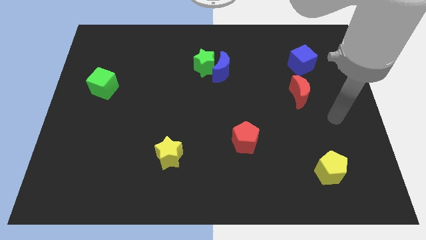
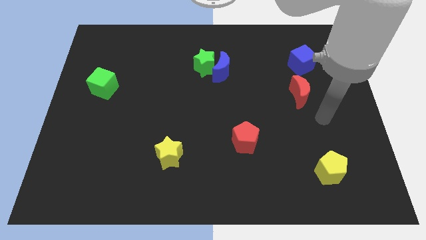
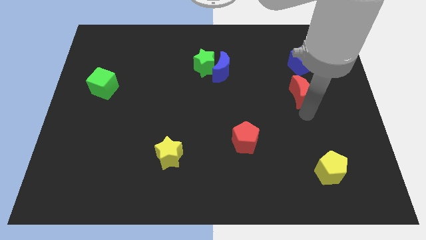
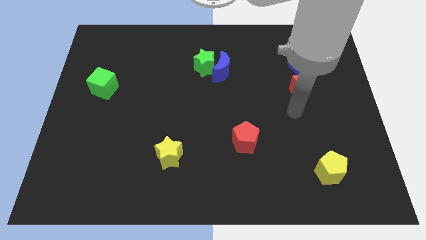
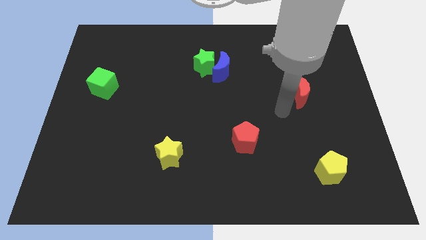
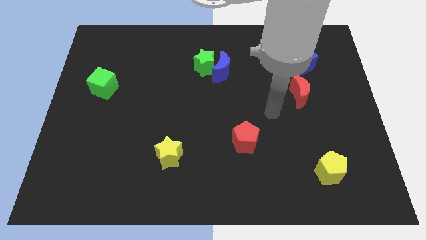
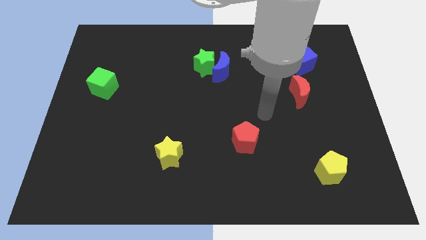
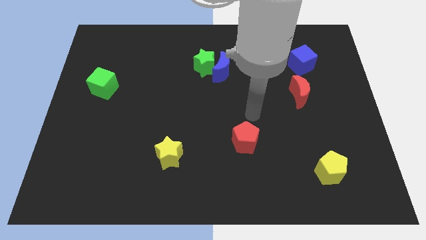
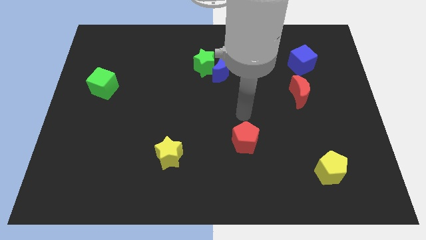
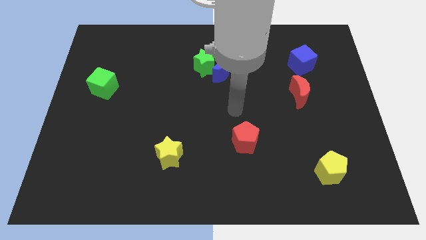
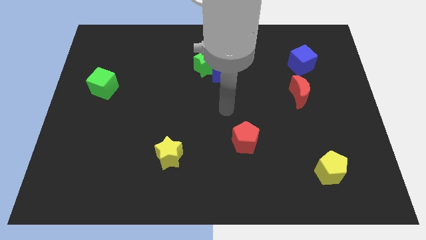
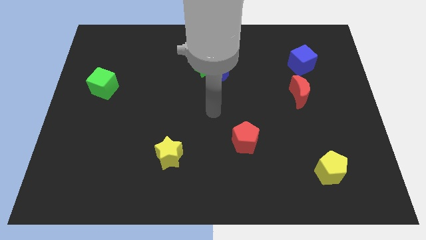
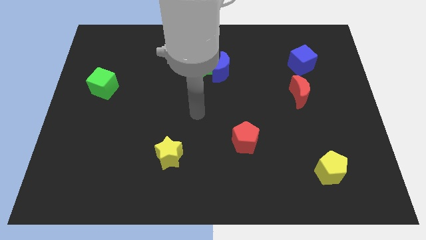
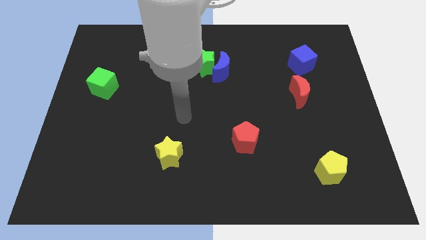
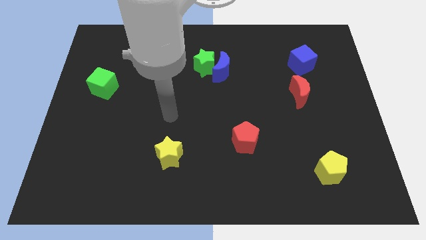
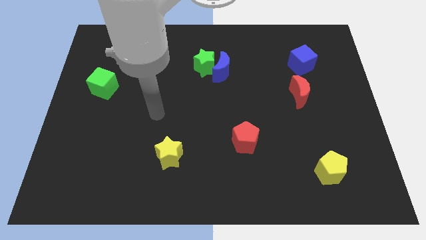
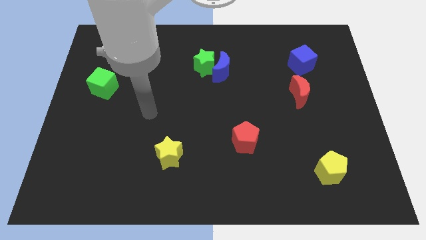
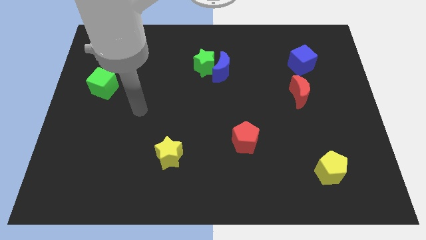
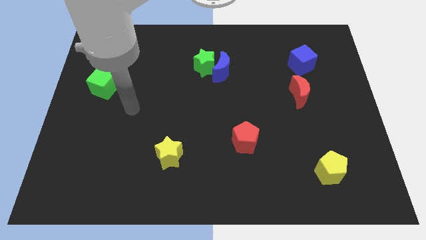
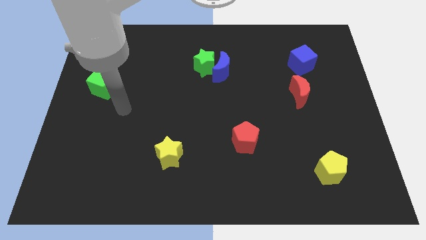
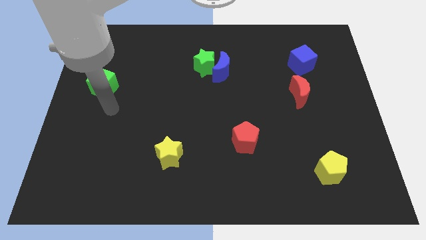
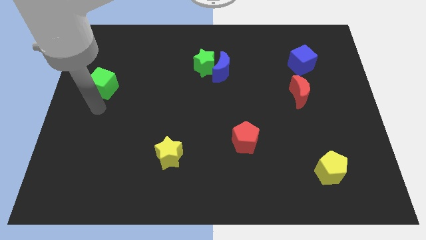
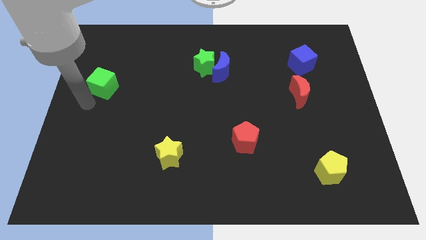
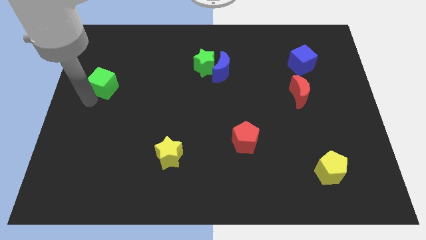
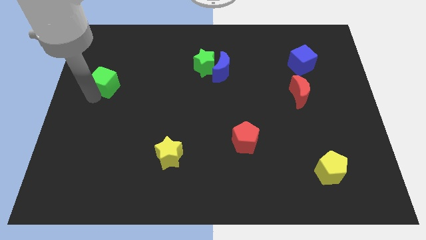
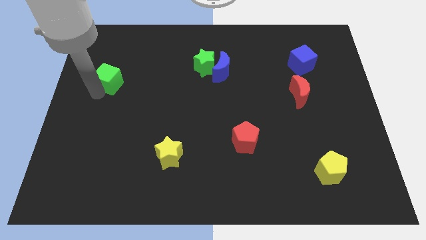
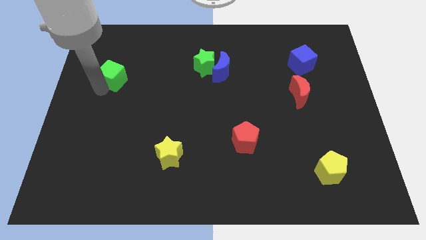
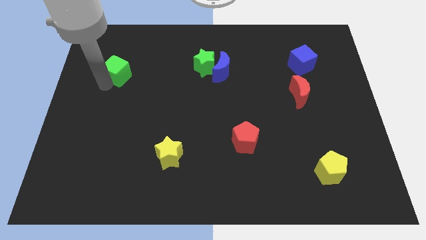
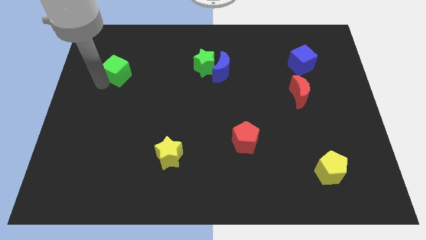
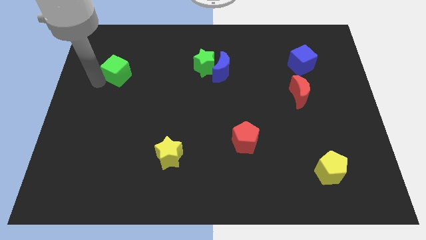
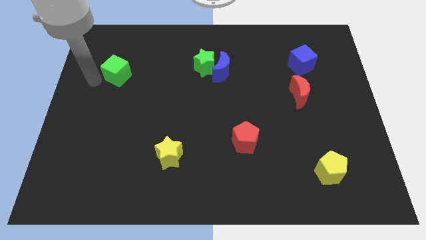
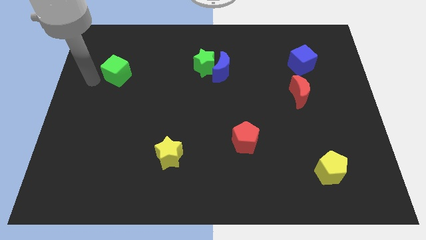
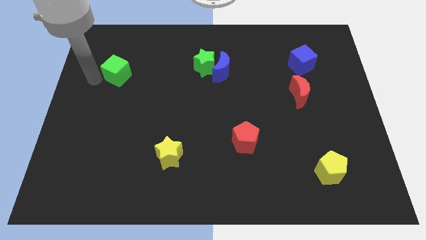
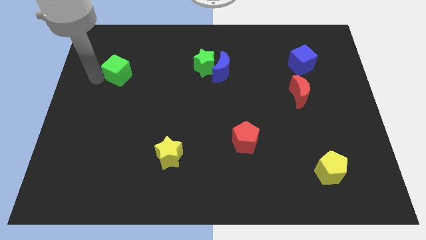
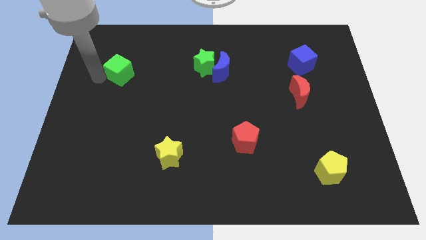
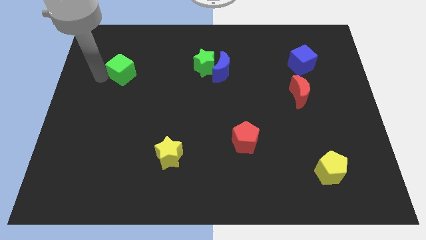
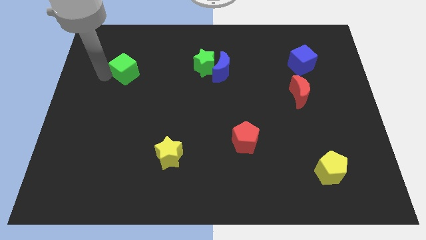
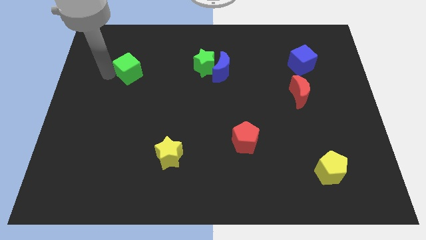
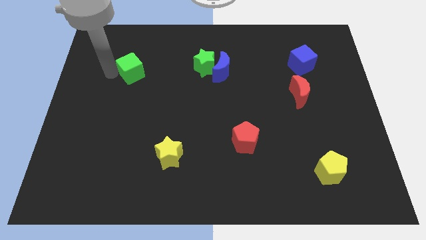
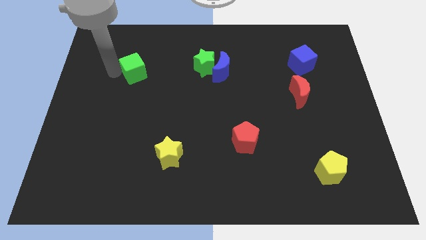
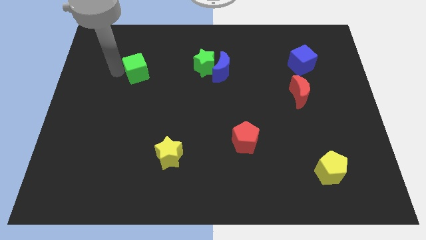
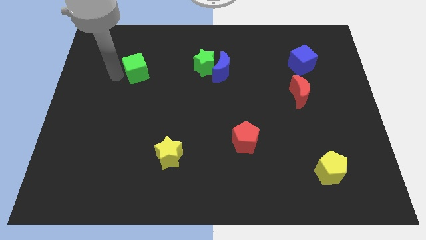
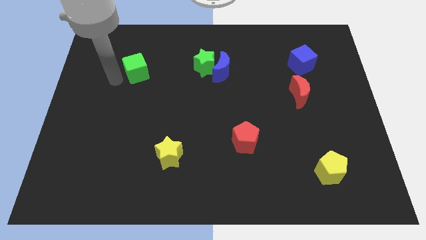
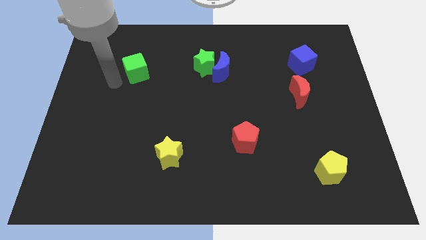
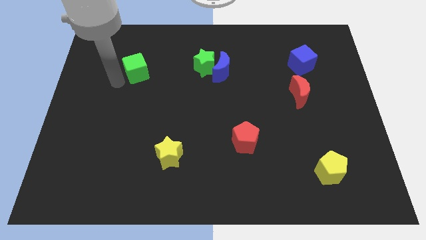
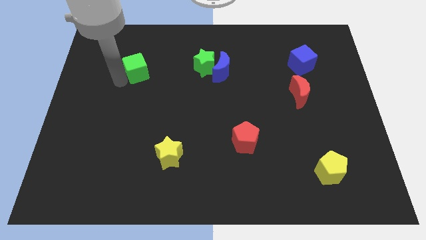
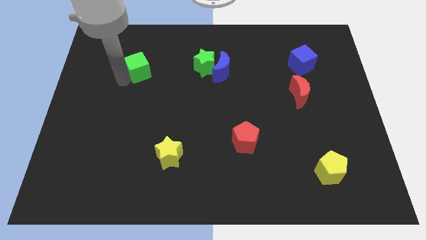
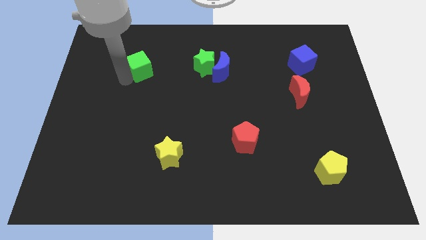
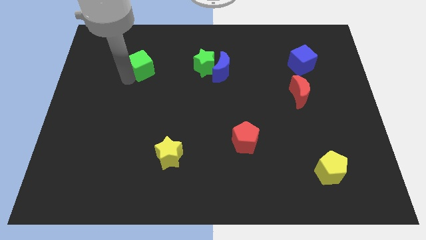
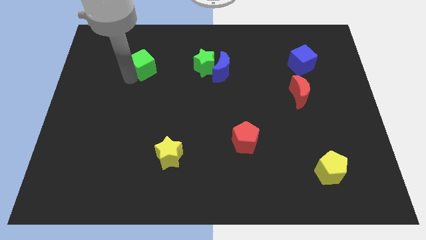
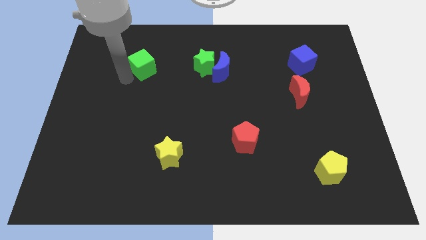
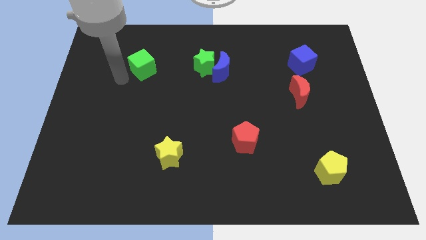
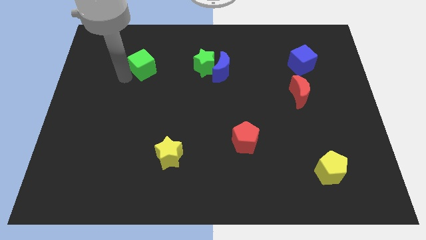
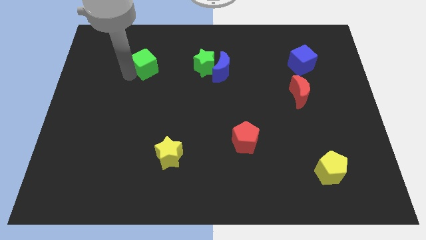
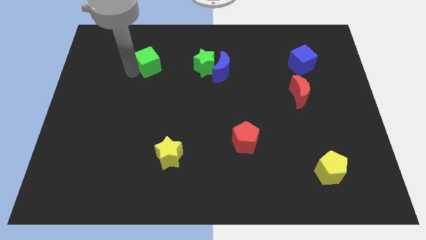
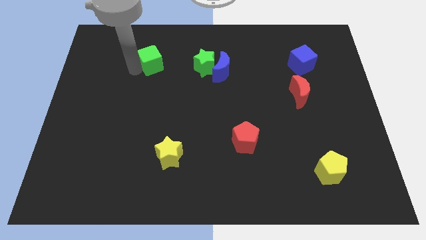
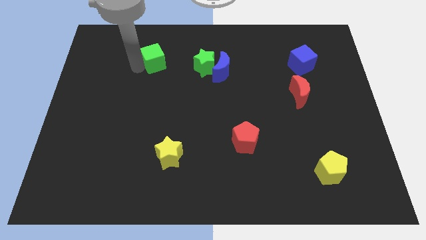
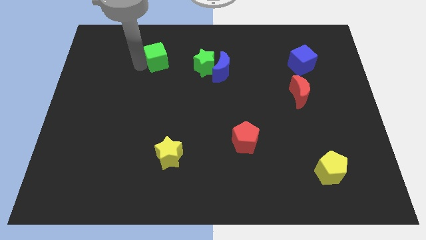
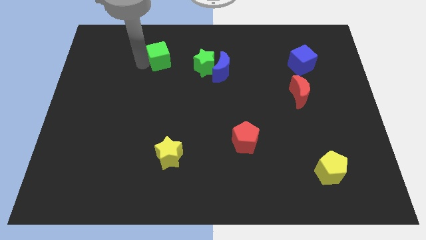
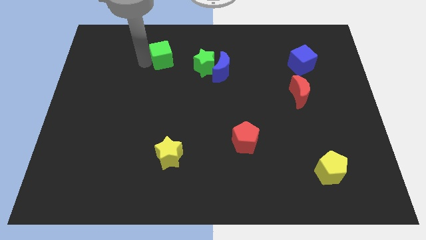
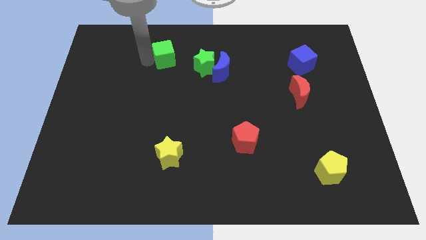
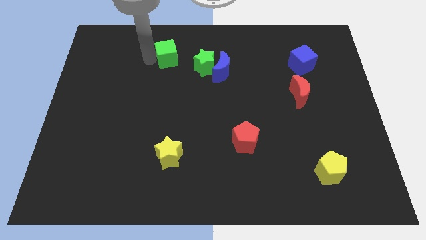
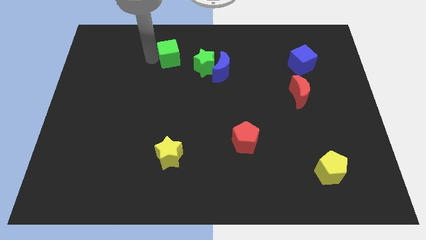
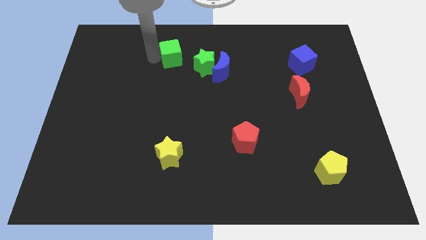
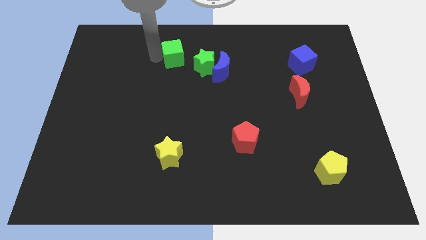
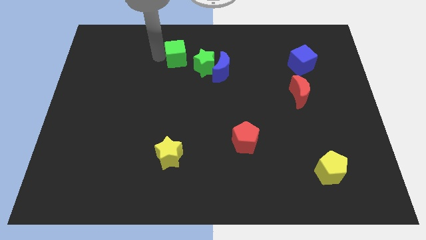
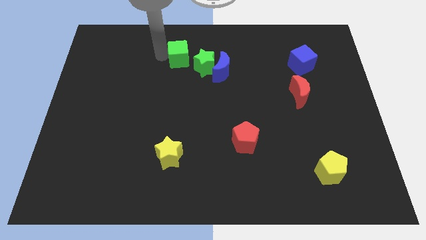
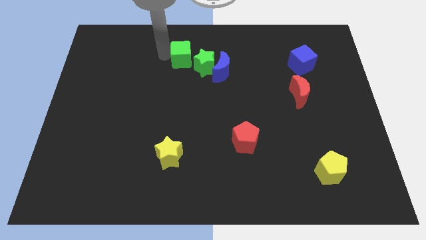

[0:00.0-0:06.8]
put the green cube to the top left of the blue moon

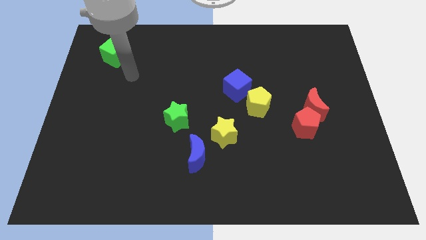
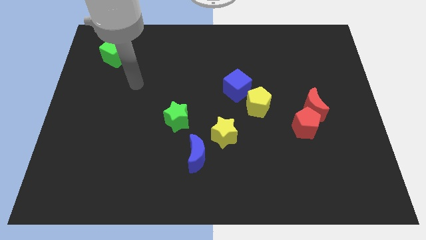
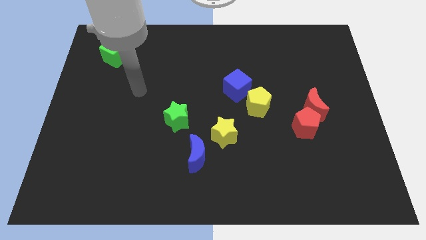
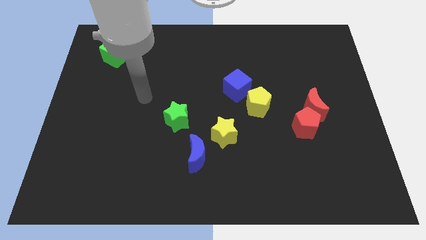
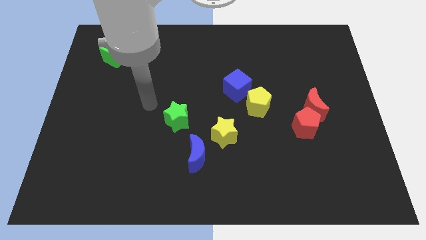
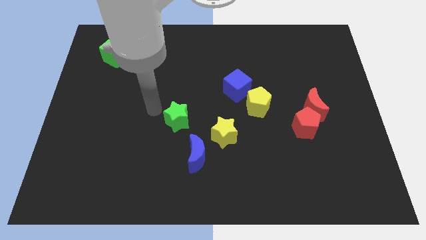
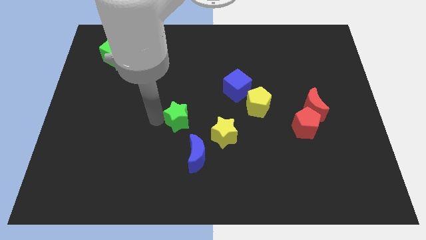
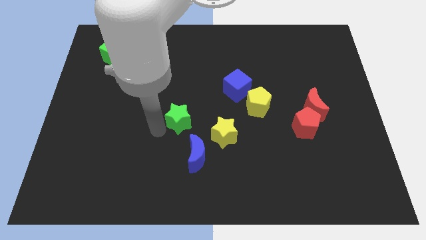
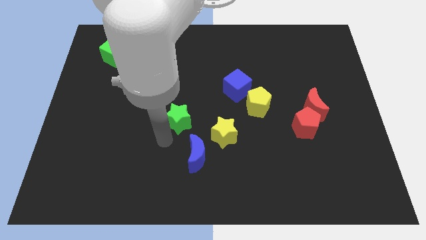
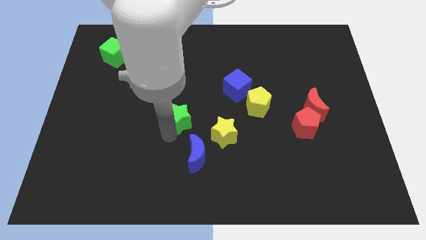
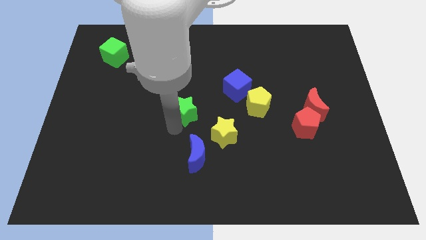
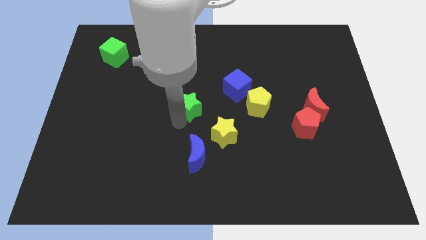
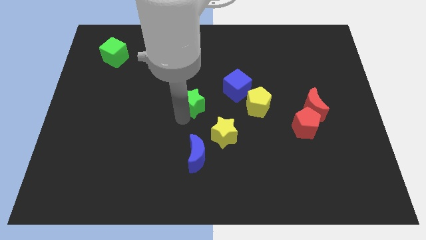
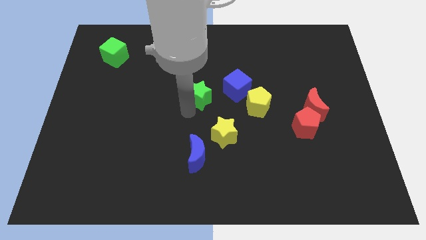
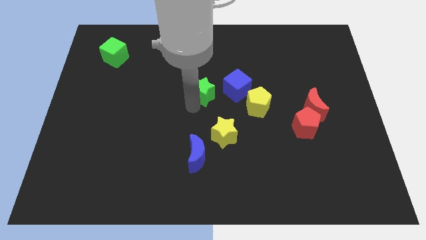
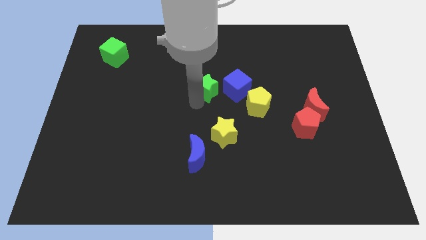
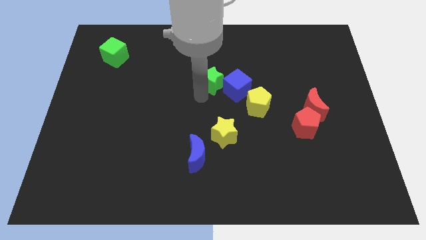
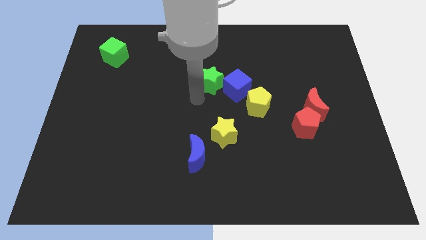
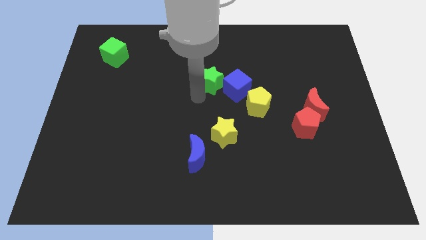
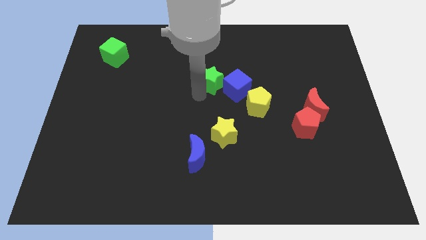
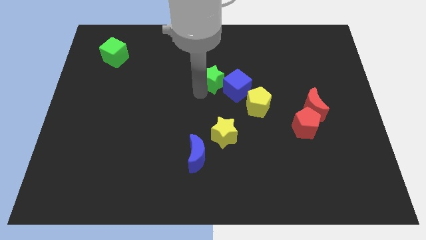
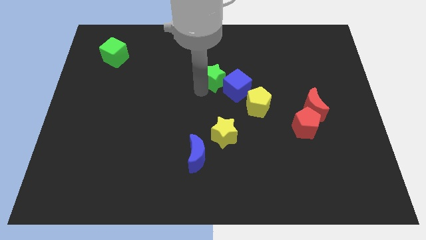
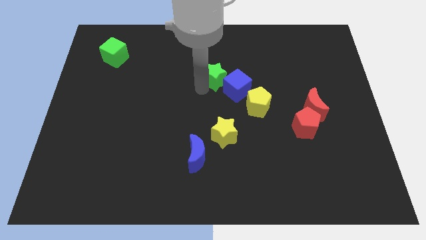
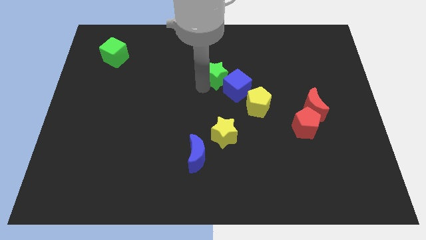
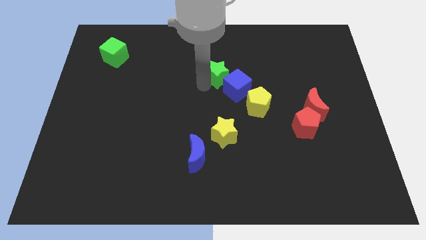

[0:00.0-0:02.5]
push the green star to the top of the blue cube
